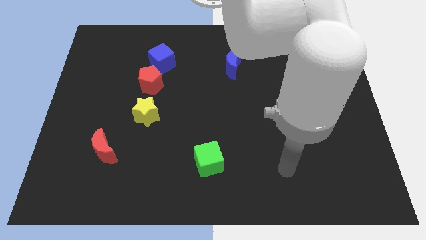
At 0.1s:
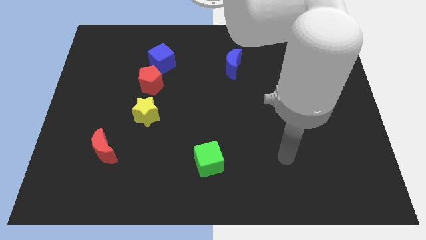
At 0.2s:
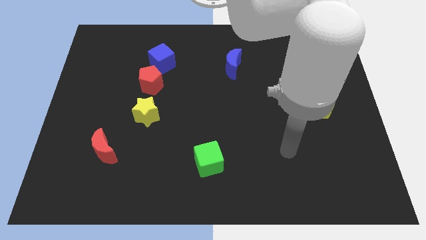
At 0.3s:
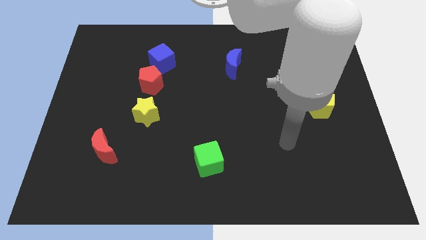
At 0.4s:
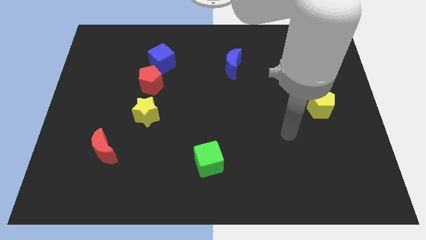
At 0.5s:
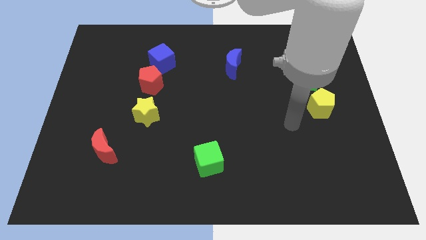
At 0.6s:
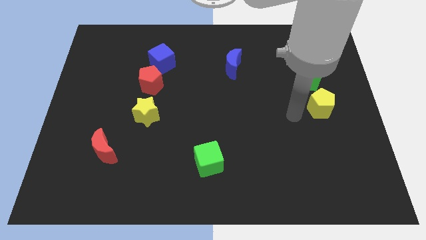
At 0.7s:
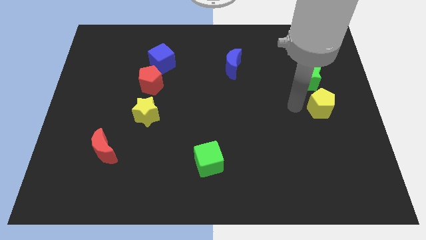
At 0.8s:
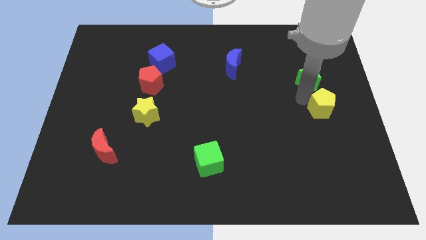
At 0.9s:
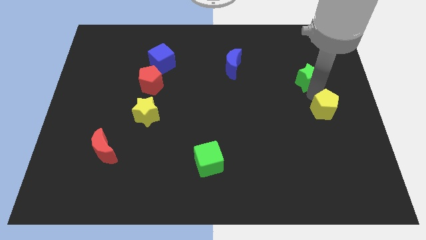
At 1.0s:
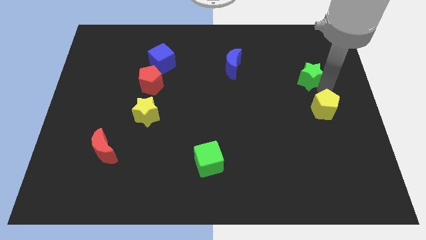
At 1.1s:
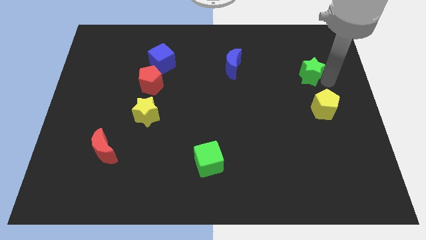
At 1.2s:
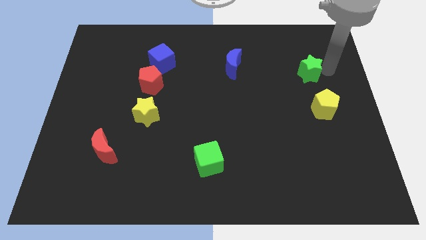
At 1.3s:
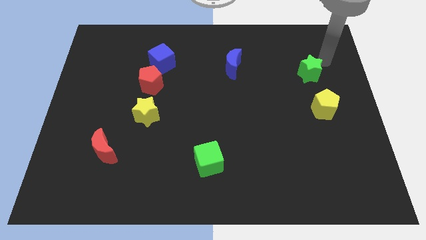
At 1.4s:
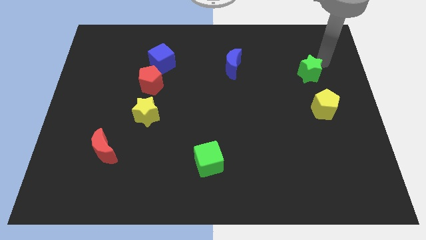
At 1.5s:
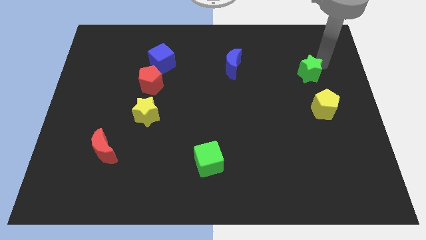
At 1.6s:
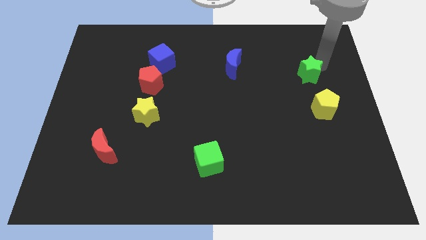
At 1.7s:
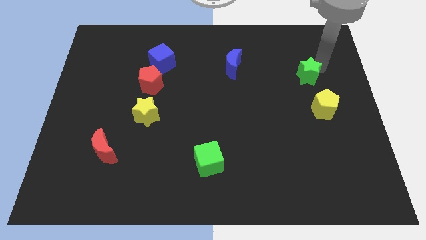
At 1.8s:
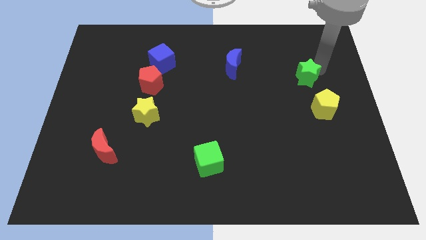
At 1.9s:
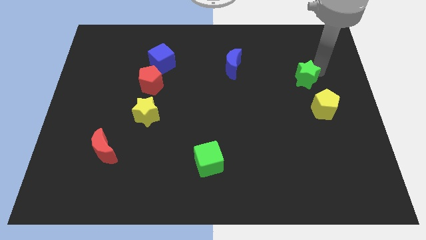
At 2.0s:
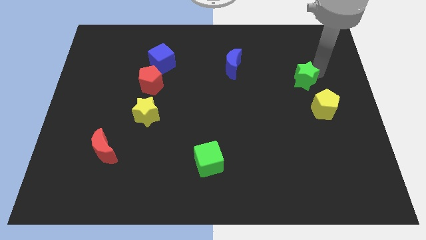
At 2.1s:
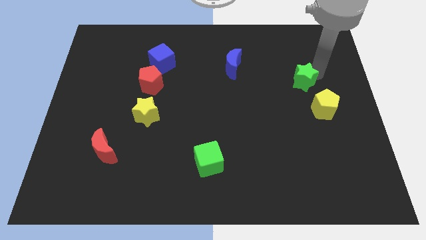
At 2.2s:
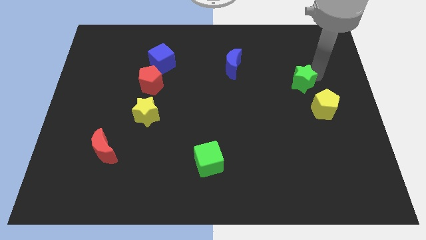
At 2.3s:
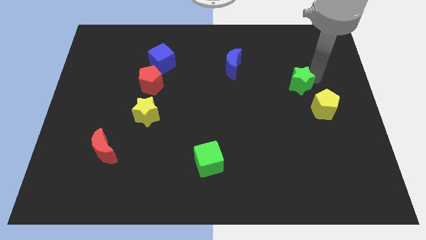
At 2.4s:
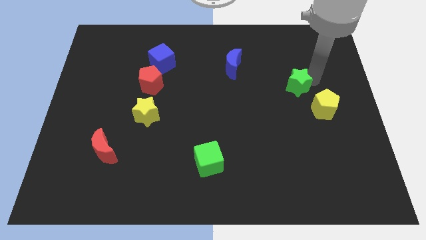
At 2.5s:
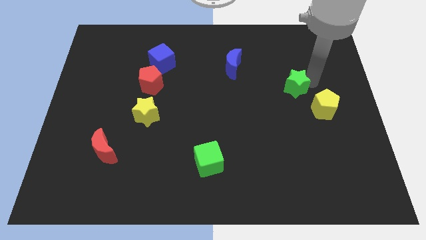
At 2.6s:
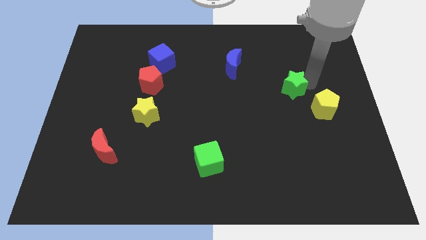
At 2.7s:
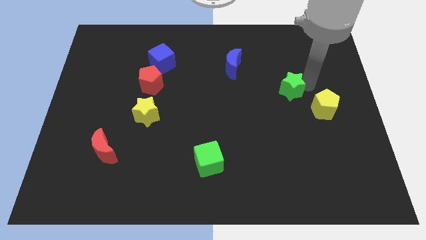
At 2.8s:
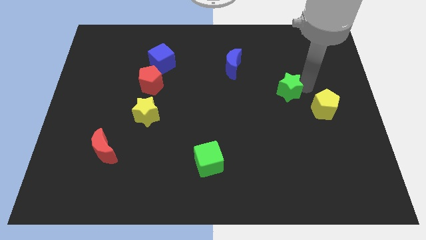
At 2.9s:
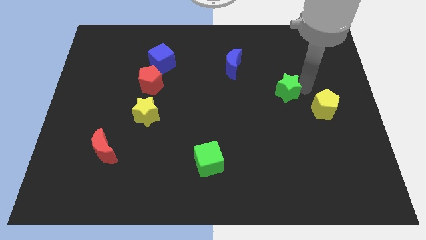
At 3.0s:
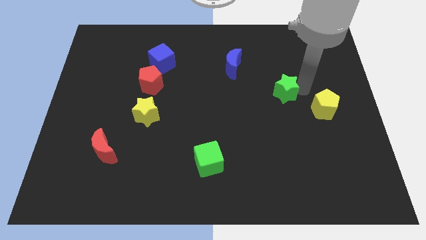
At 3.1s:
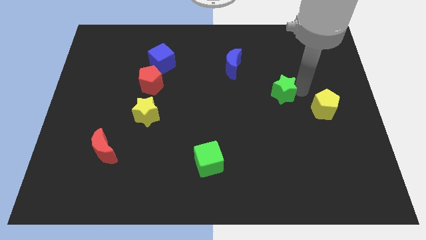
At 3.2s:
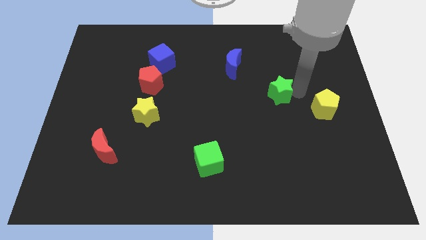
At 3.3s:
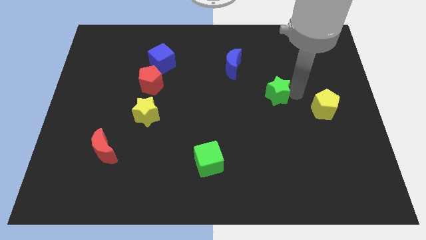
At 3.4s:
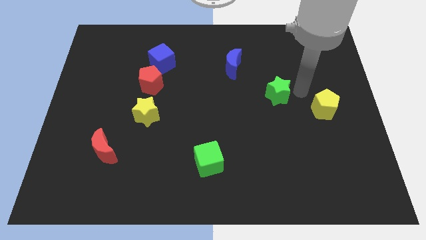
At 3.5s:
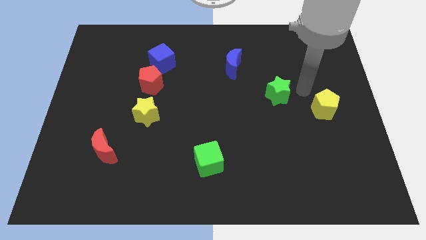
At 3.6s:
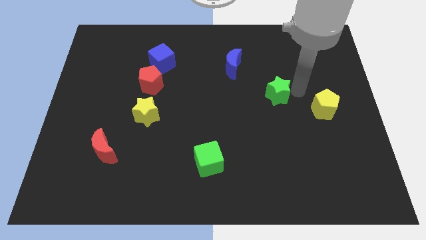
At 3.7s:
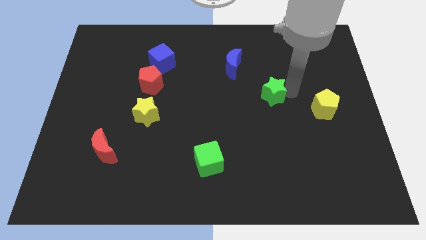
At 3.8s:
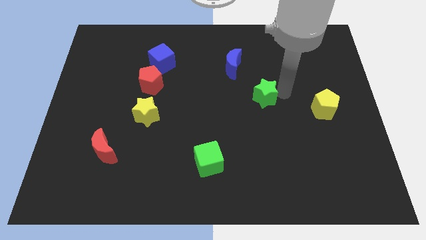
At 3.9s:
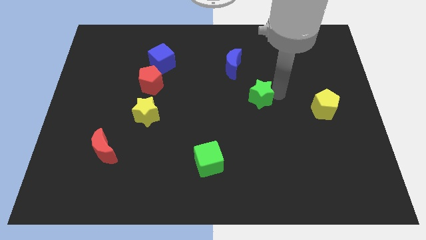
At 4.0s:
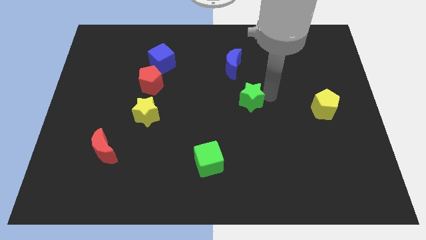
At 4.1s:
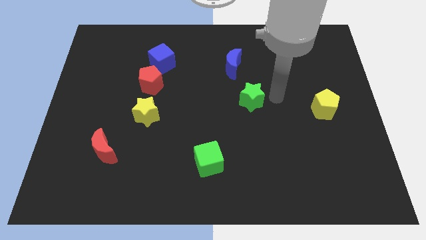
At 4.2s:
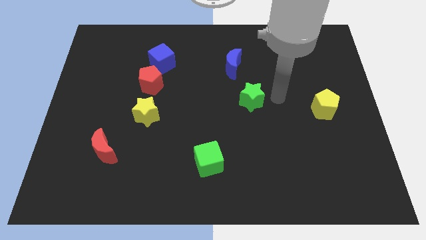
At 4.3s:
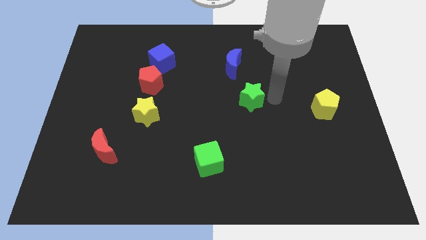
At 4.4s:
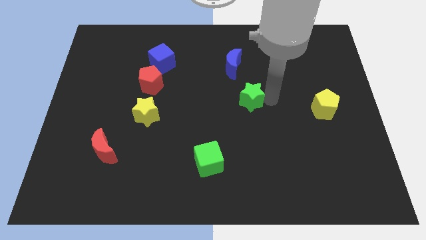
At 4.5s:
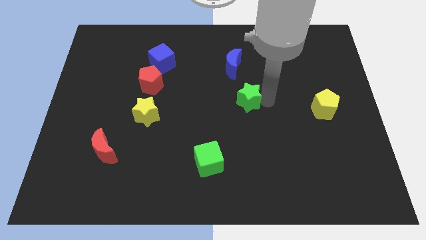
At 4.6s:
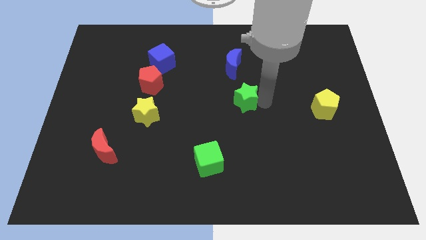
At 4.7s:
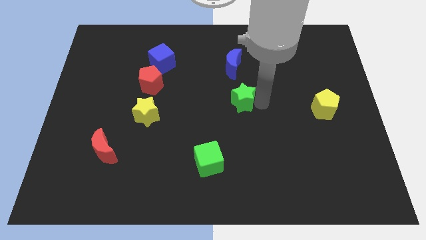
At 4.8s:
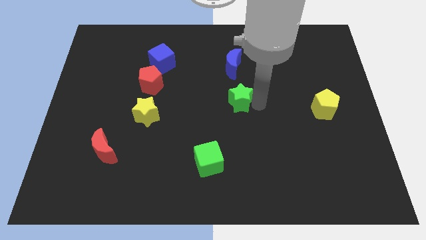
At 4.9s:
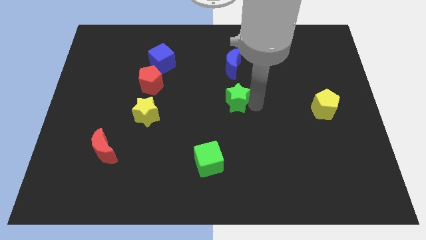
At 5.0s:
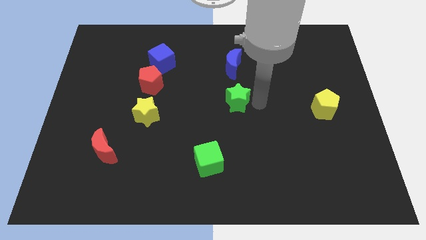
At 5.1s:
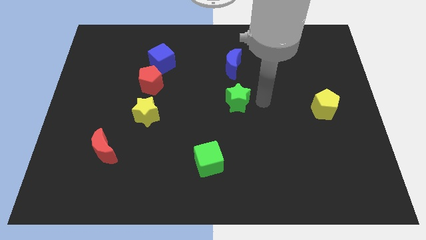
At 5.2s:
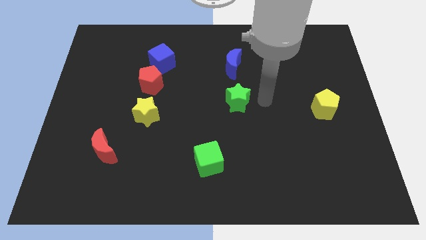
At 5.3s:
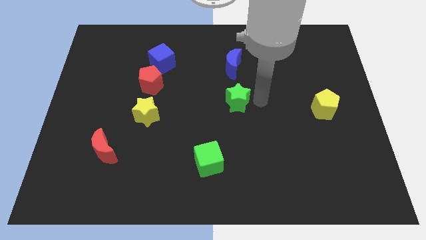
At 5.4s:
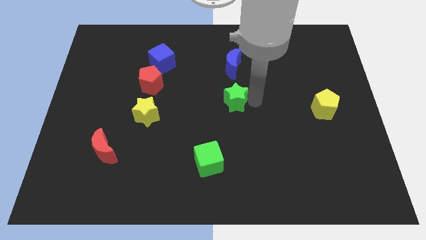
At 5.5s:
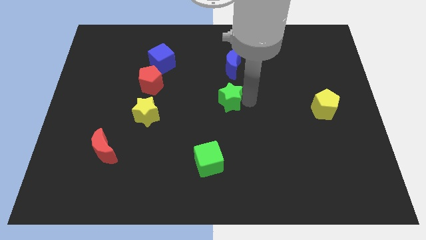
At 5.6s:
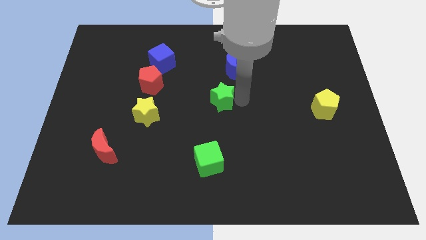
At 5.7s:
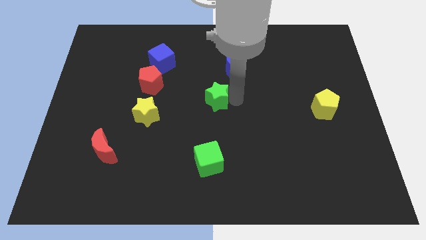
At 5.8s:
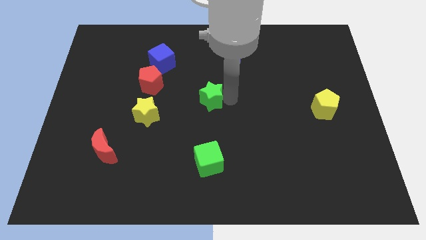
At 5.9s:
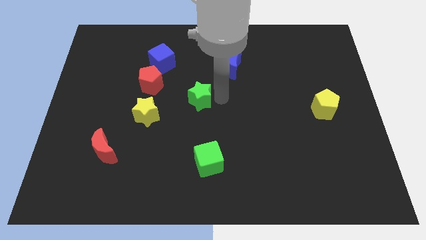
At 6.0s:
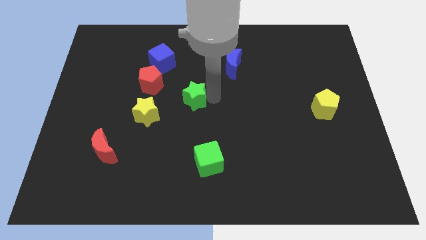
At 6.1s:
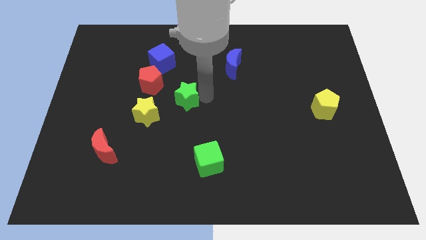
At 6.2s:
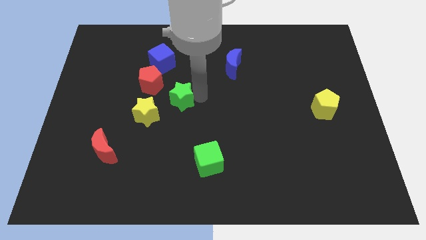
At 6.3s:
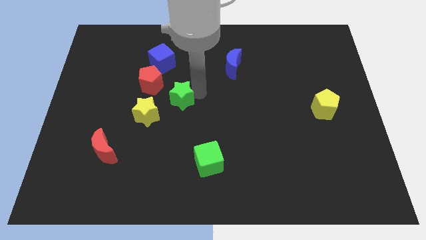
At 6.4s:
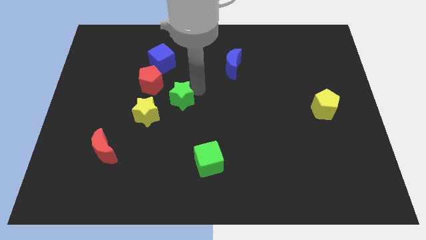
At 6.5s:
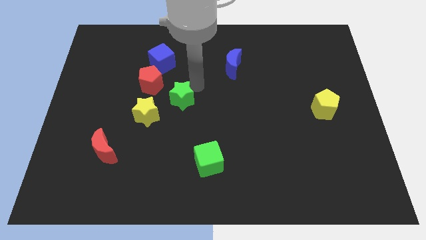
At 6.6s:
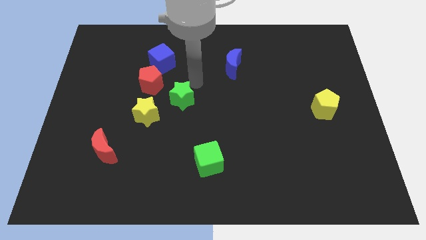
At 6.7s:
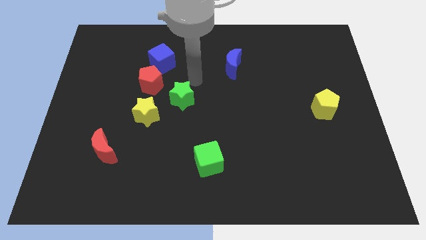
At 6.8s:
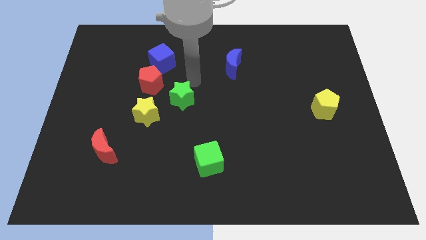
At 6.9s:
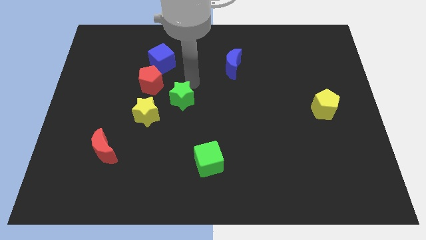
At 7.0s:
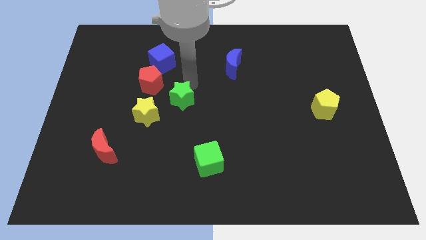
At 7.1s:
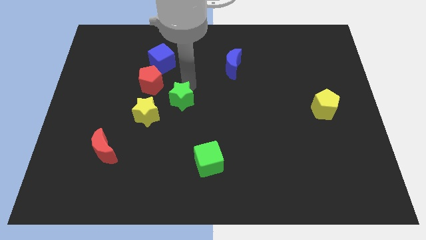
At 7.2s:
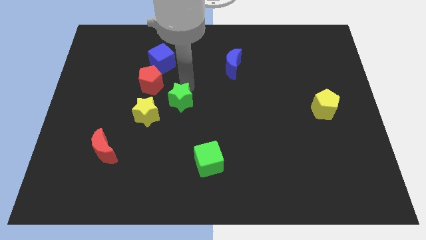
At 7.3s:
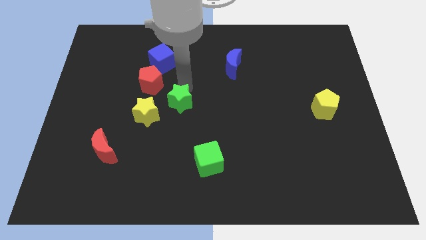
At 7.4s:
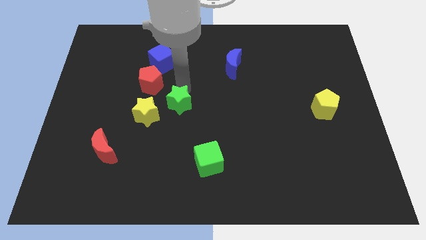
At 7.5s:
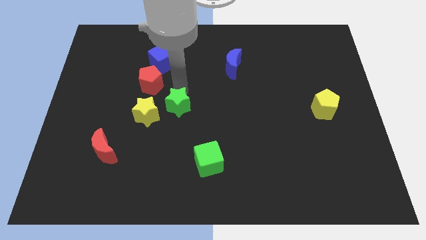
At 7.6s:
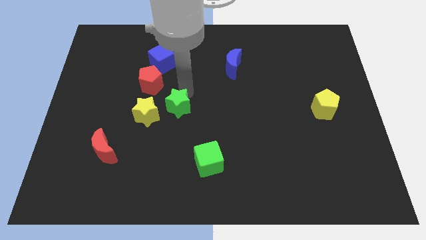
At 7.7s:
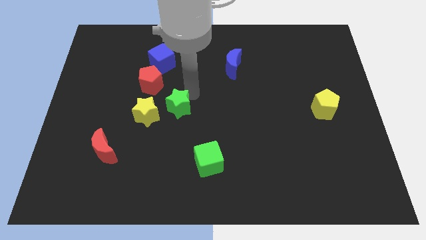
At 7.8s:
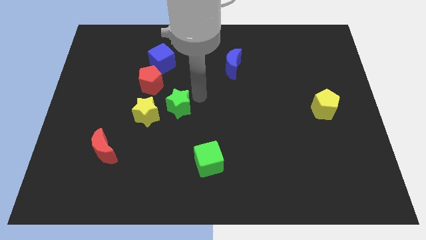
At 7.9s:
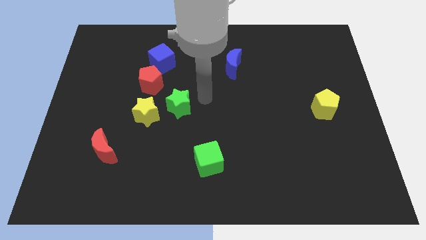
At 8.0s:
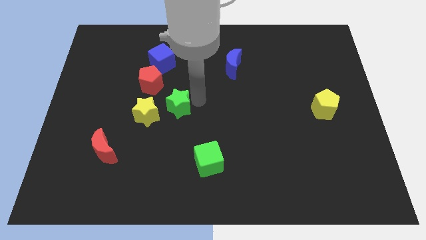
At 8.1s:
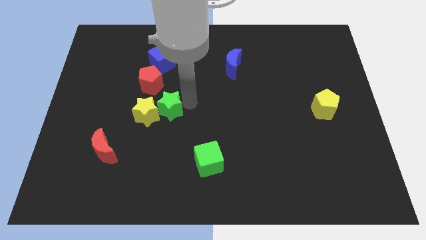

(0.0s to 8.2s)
push the green star next to the yellow star
